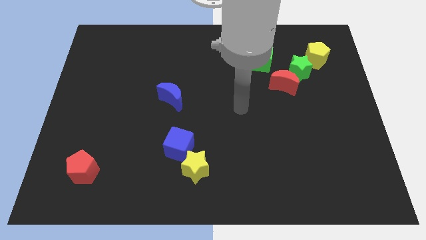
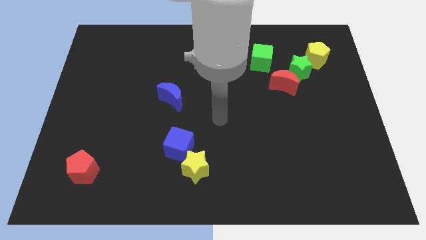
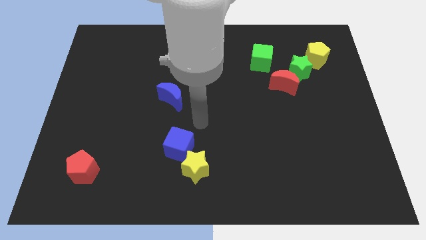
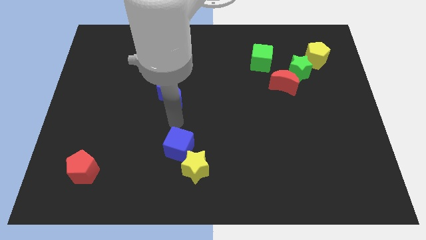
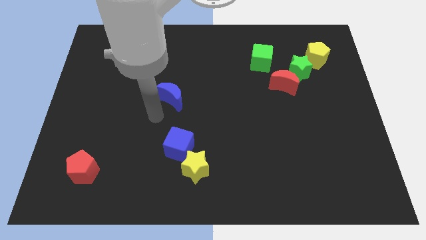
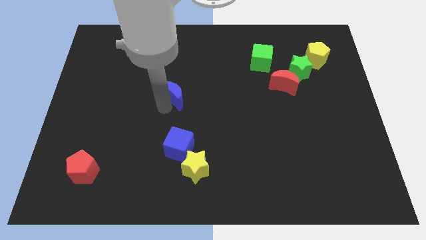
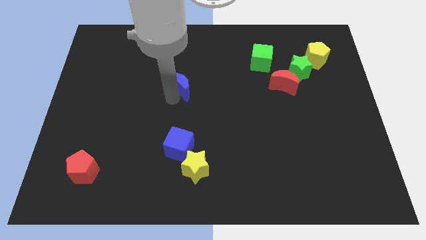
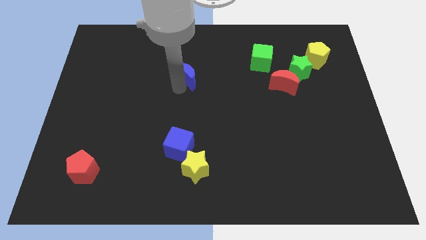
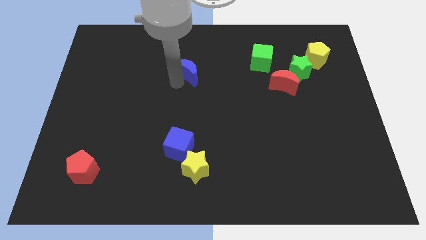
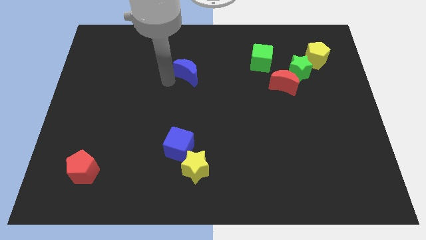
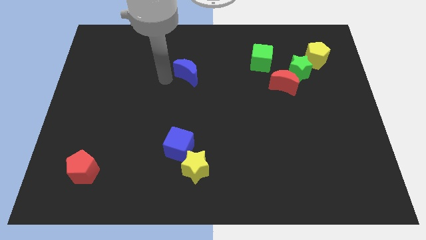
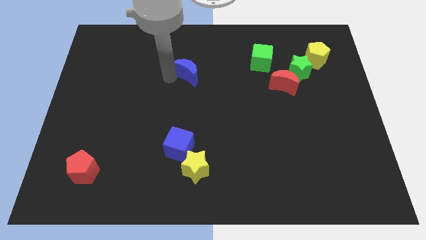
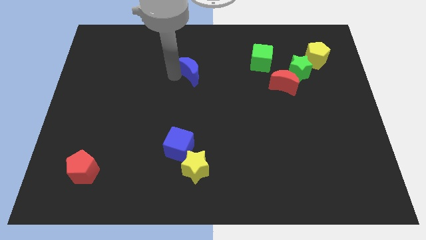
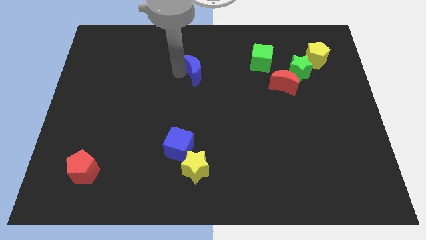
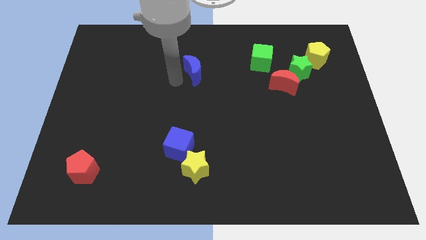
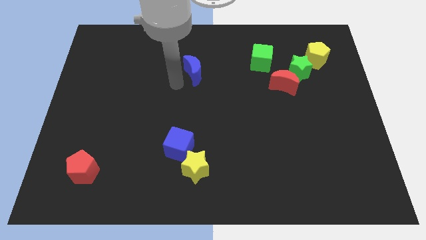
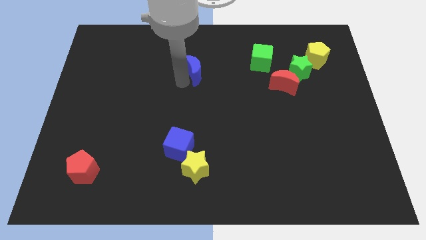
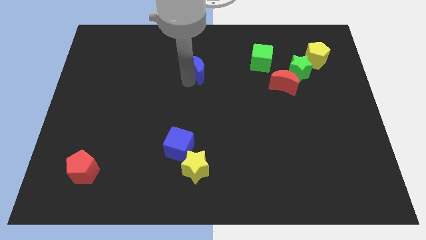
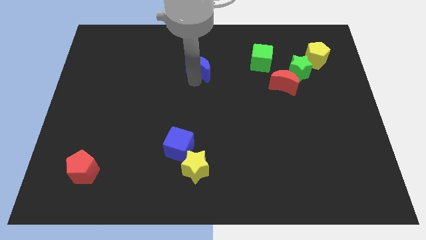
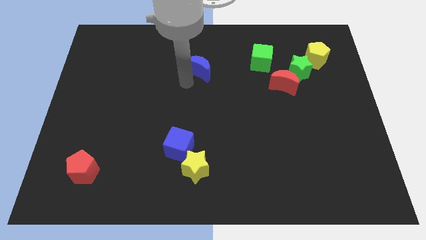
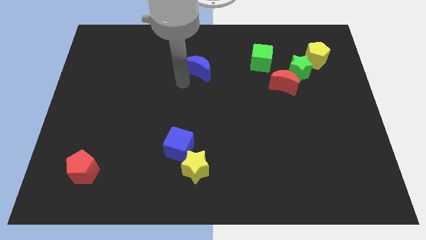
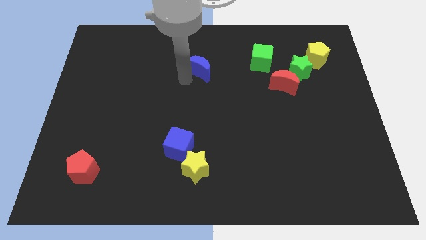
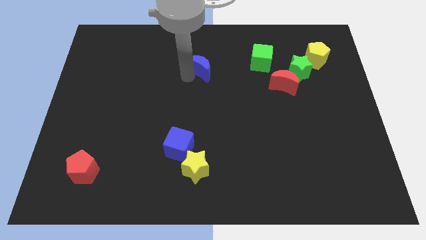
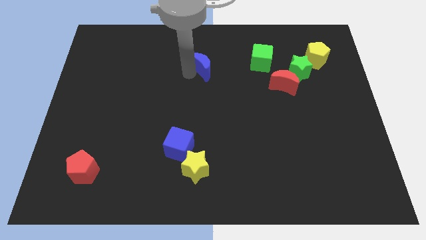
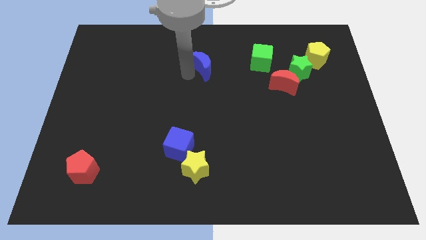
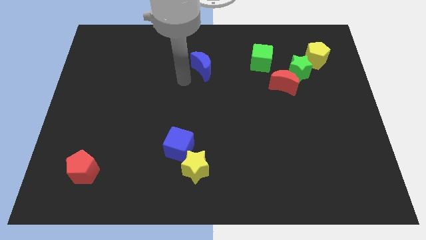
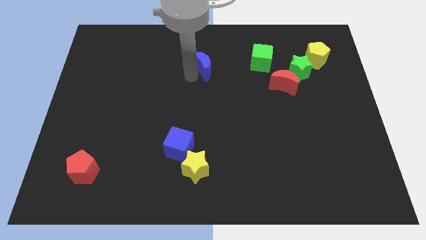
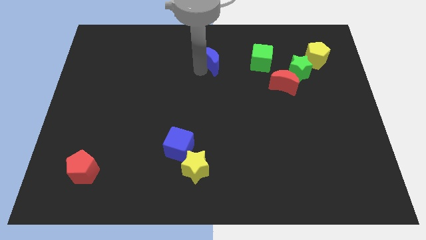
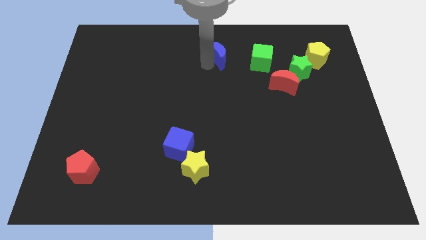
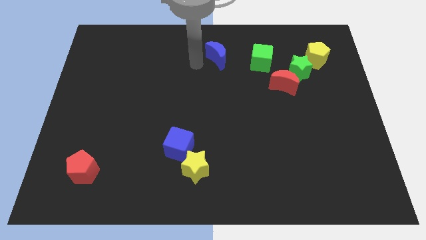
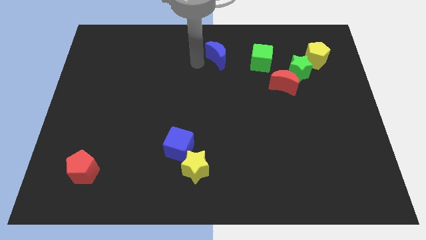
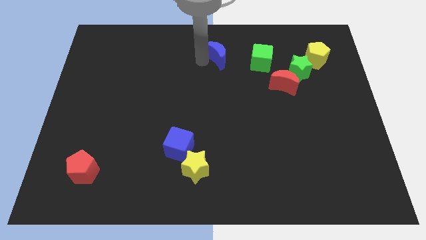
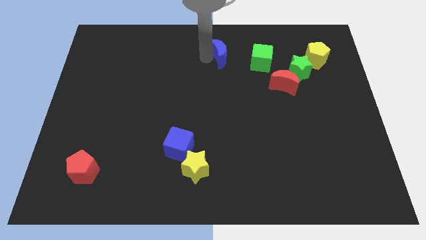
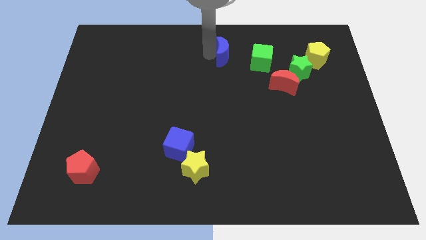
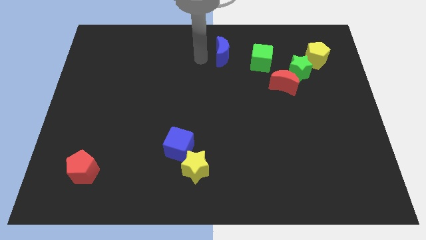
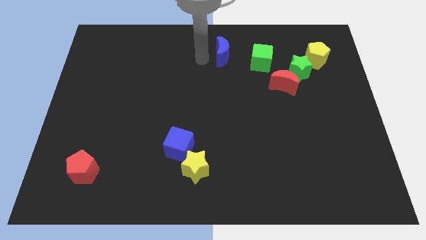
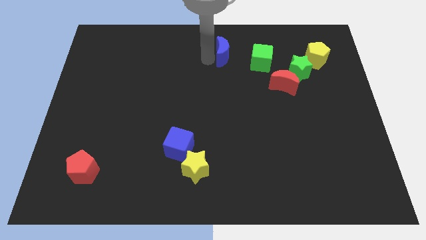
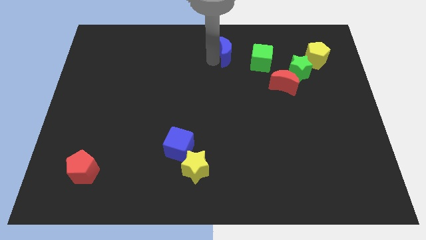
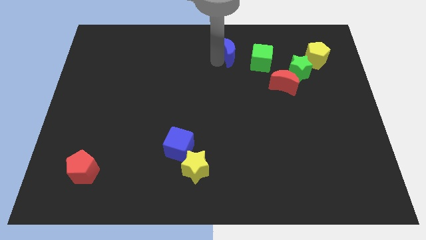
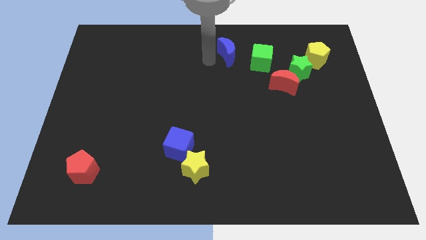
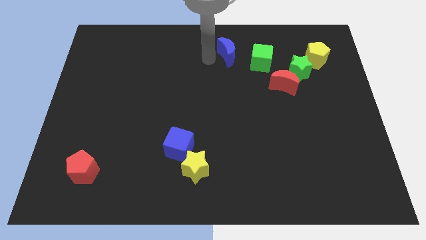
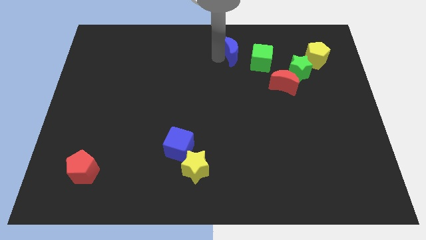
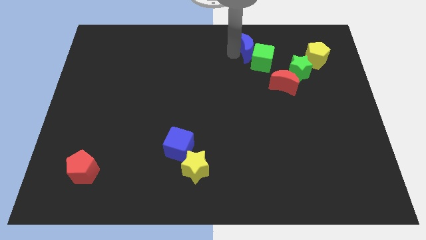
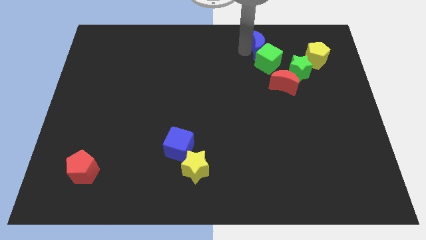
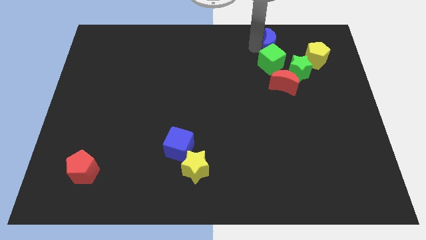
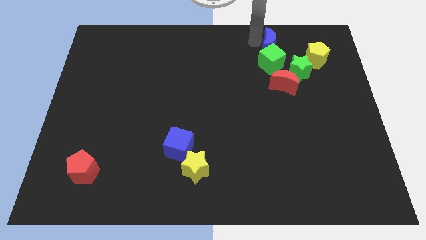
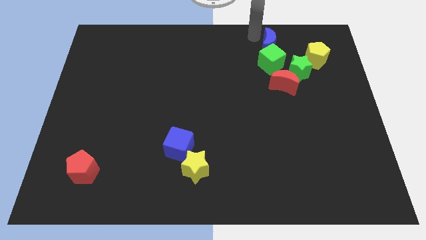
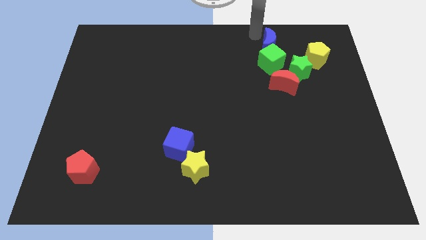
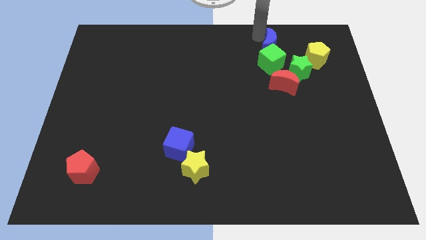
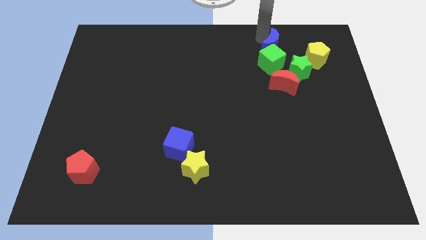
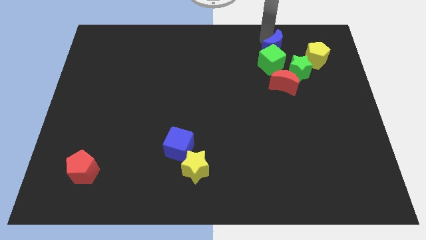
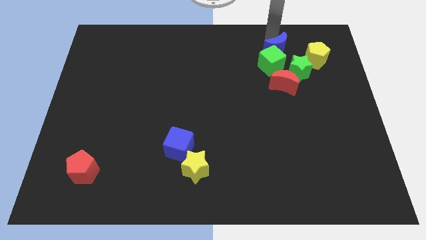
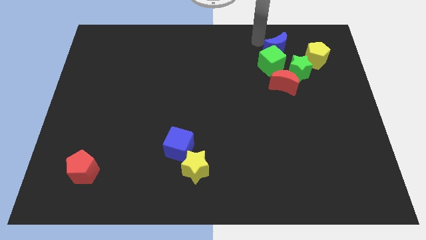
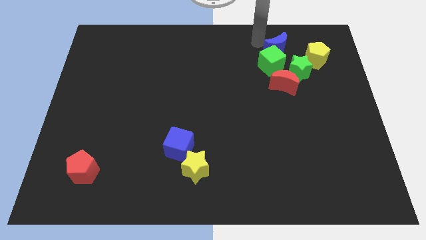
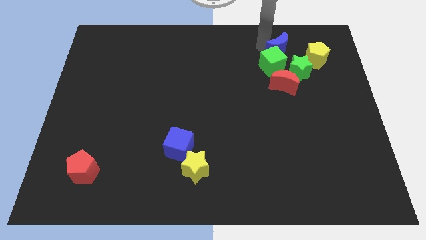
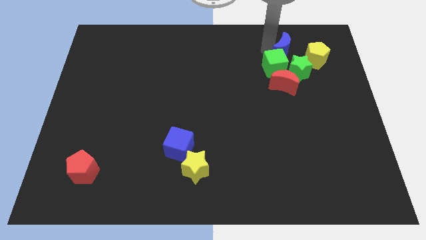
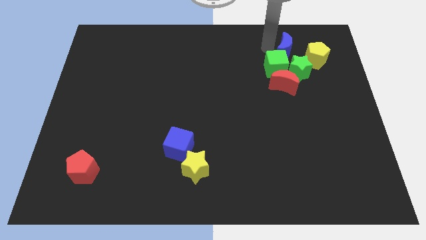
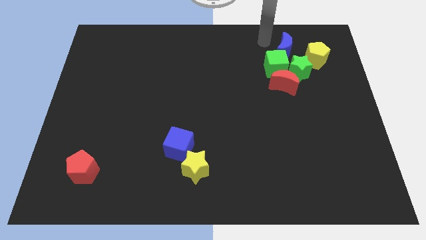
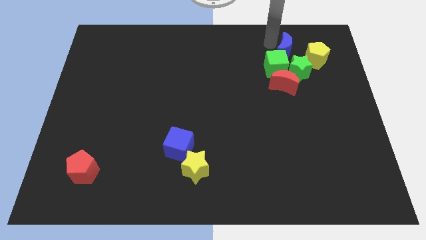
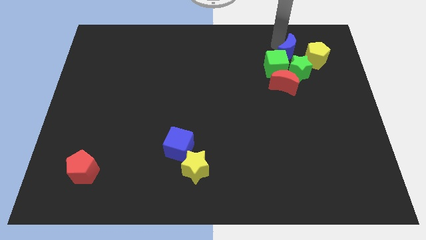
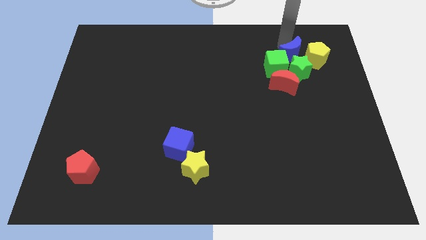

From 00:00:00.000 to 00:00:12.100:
push the blue moon to the right of the green cube

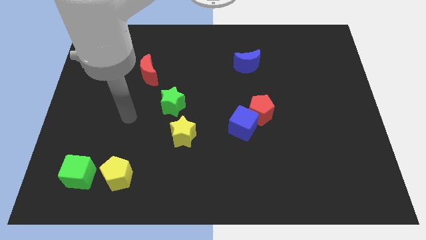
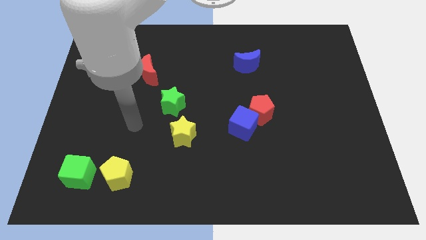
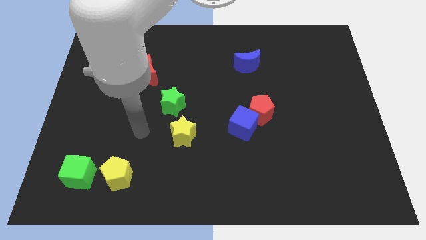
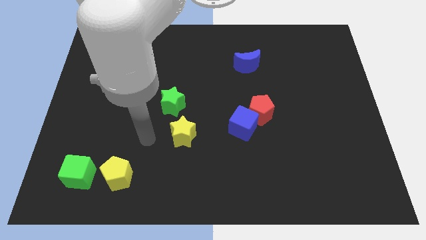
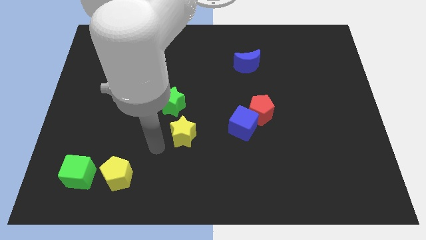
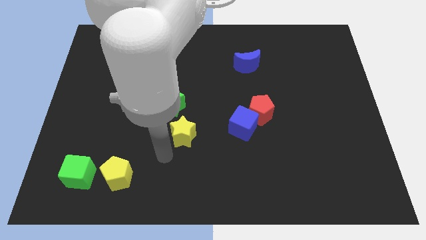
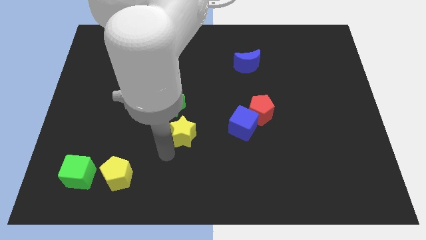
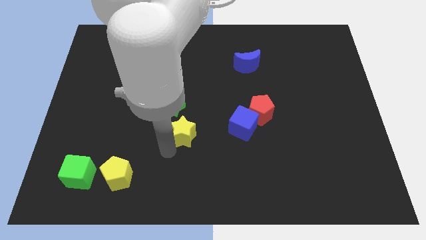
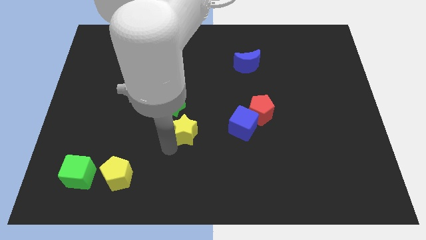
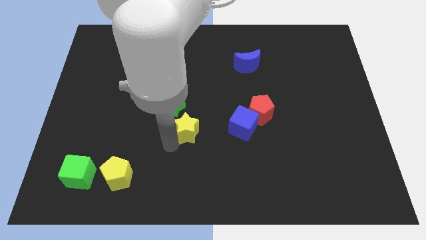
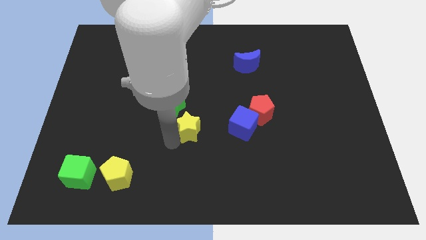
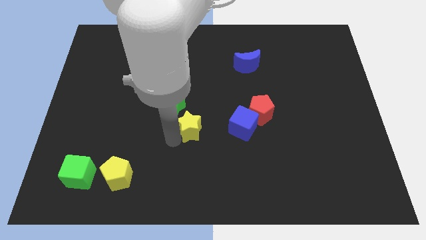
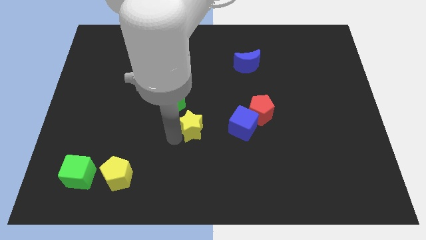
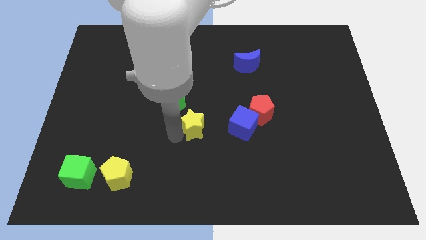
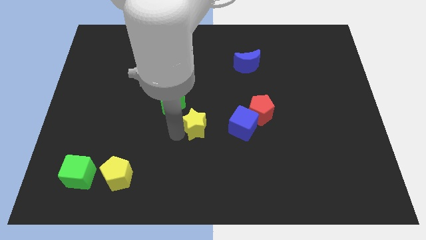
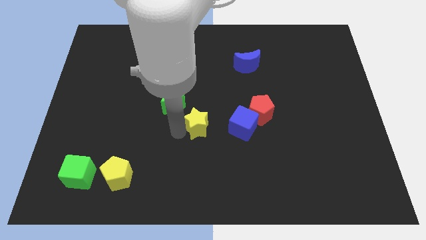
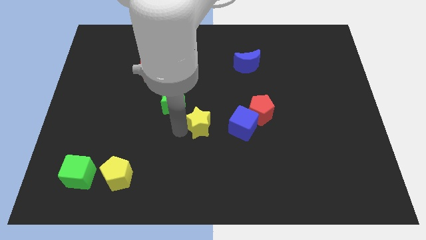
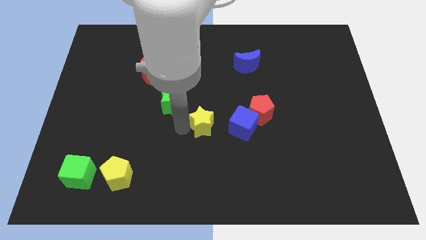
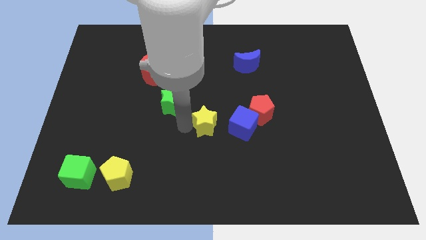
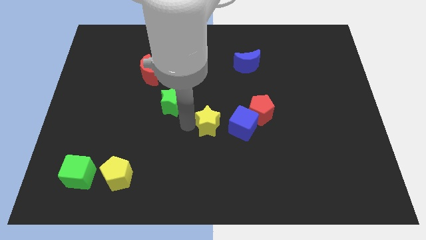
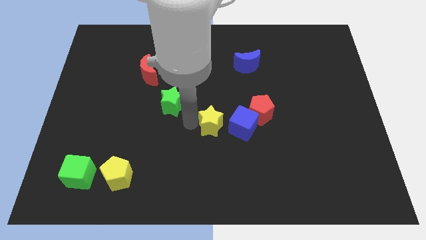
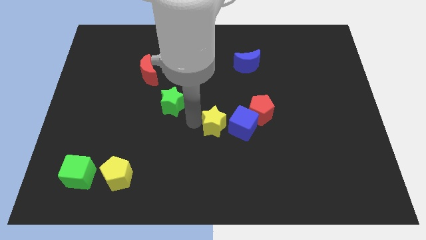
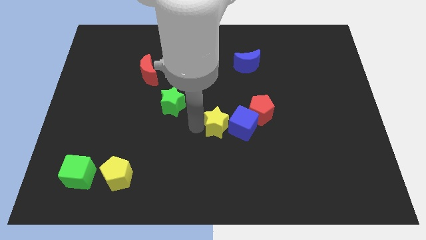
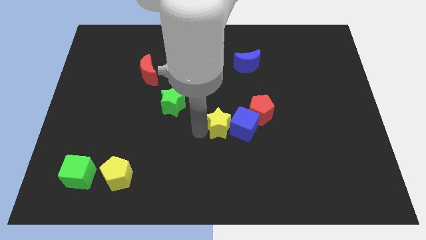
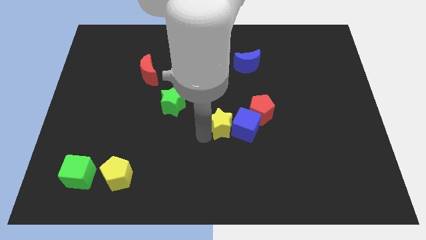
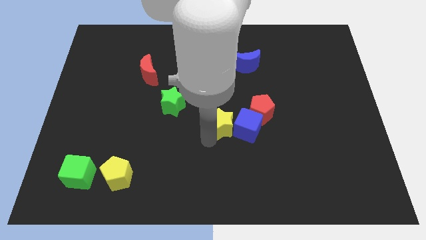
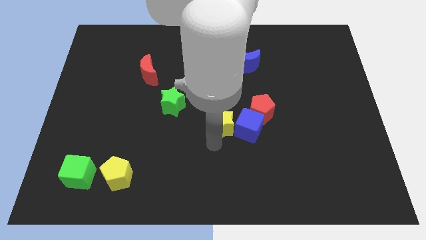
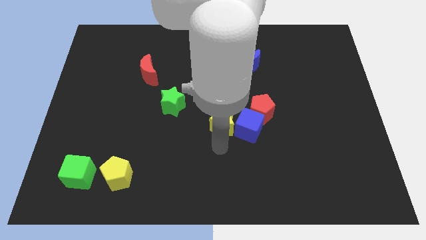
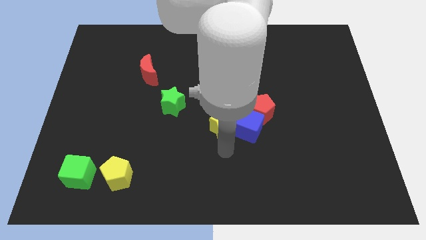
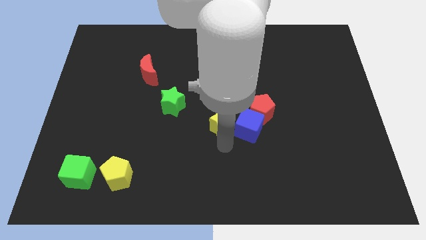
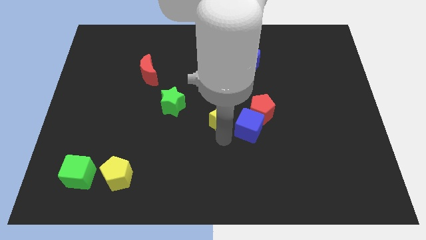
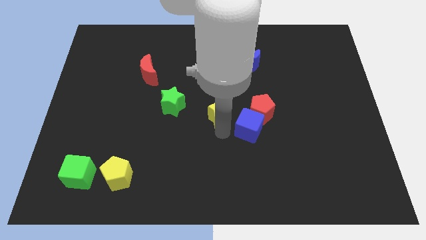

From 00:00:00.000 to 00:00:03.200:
slide the yellow star just right of the green star
